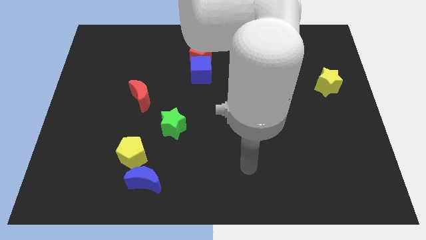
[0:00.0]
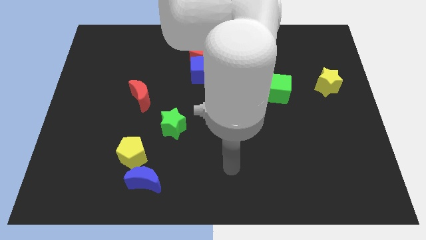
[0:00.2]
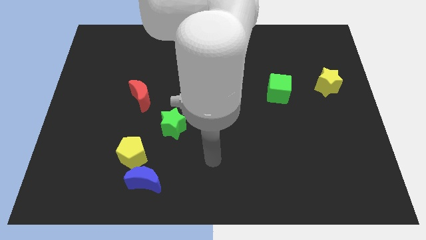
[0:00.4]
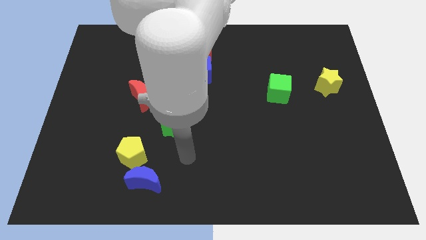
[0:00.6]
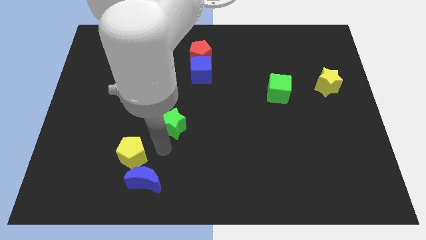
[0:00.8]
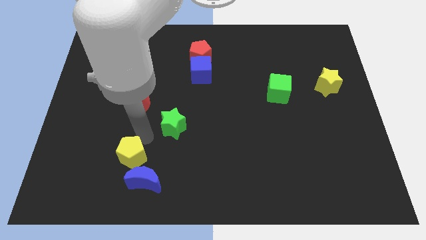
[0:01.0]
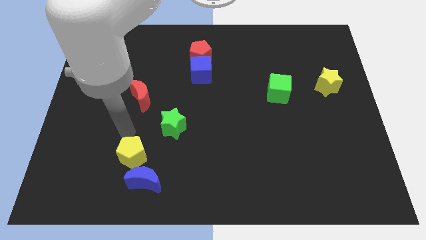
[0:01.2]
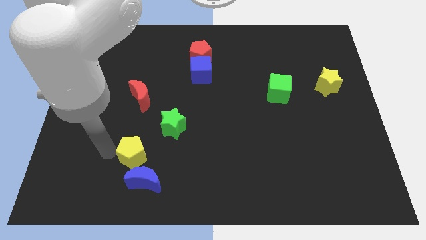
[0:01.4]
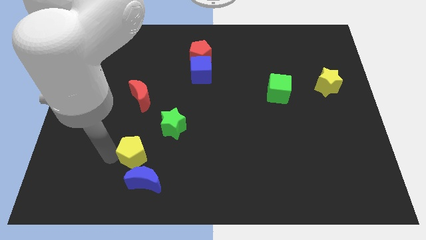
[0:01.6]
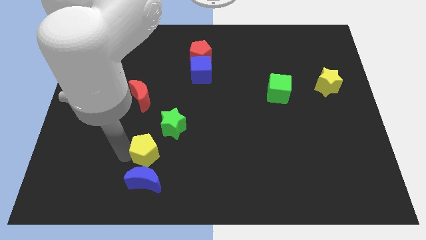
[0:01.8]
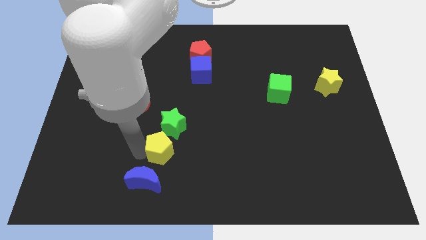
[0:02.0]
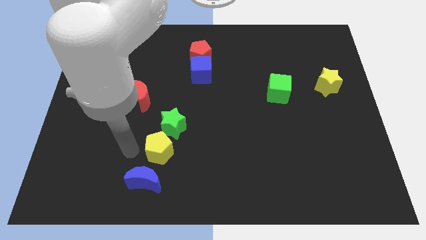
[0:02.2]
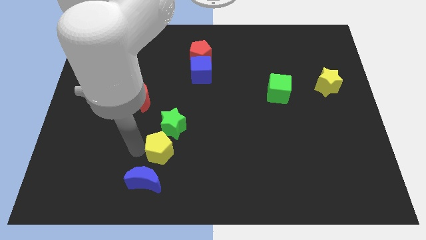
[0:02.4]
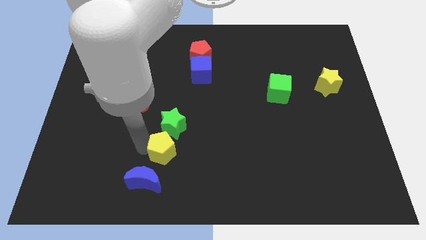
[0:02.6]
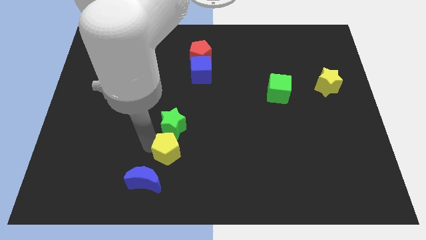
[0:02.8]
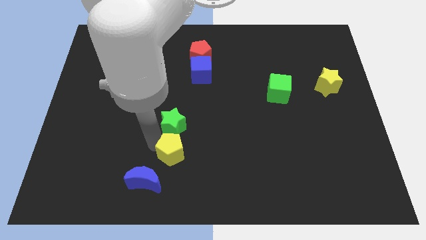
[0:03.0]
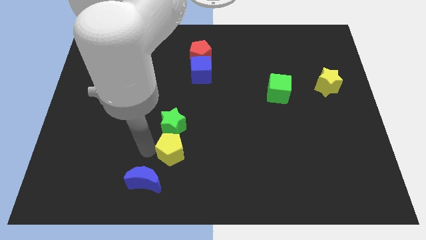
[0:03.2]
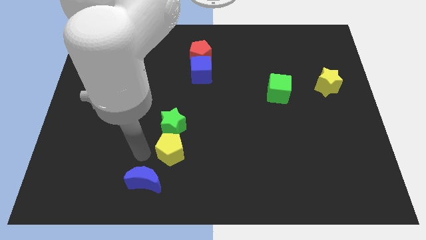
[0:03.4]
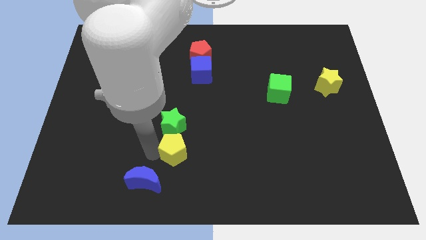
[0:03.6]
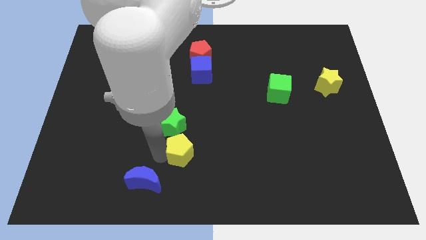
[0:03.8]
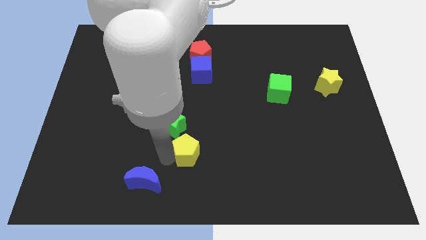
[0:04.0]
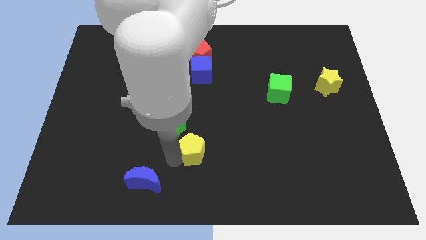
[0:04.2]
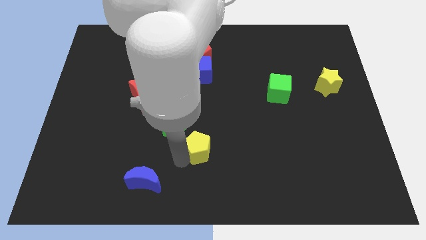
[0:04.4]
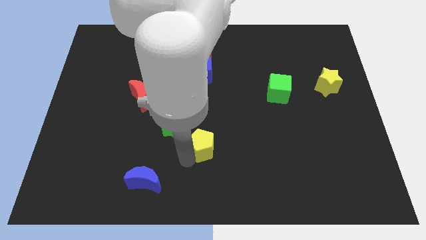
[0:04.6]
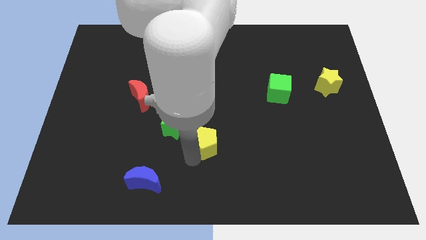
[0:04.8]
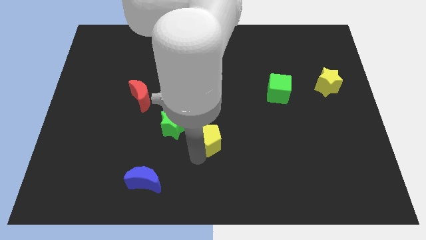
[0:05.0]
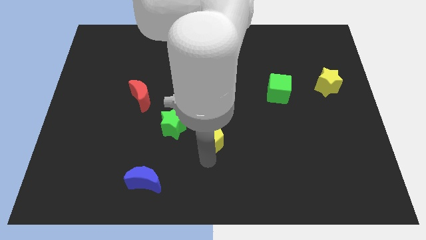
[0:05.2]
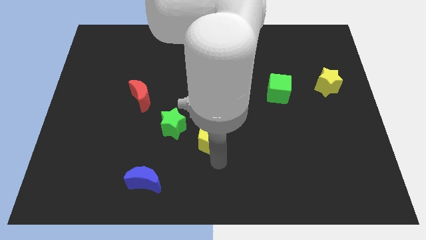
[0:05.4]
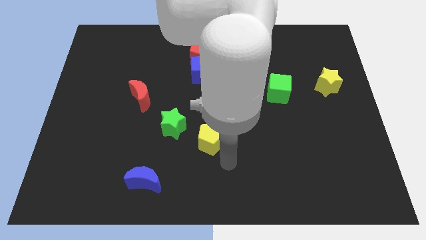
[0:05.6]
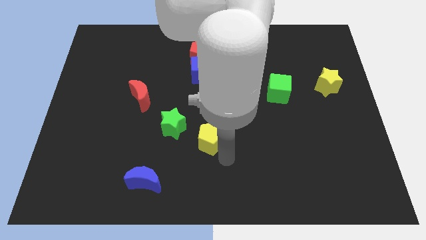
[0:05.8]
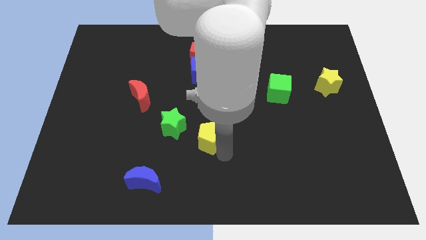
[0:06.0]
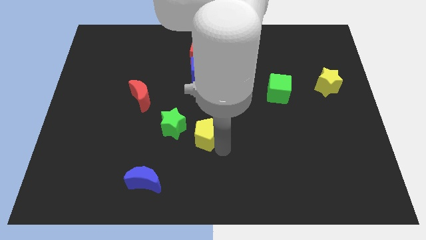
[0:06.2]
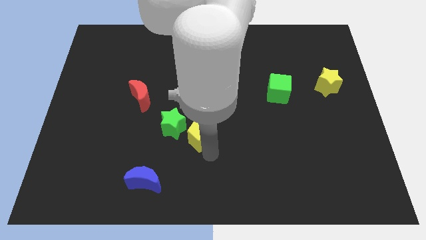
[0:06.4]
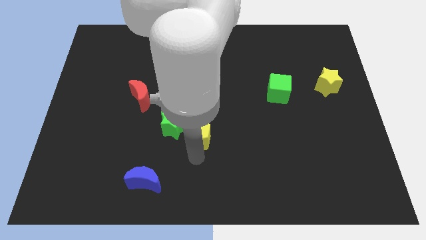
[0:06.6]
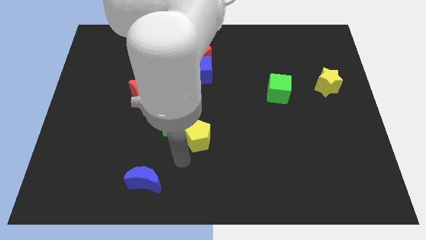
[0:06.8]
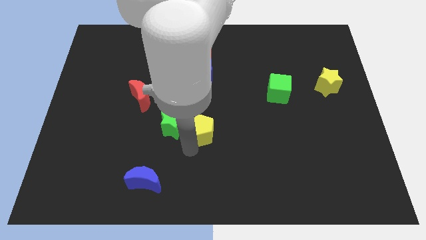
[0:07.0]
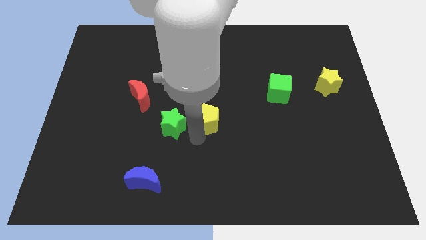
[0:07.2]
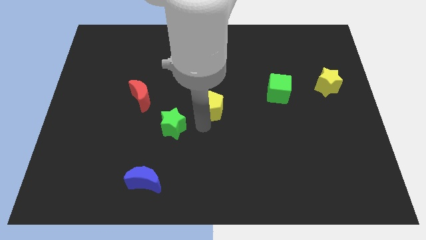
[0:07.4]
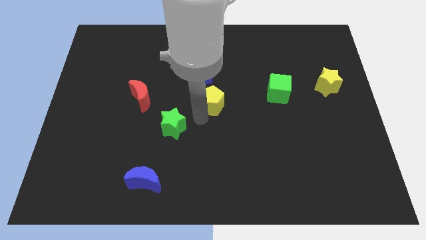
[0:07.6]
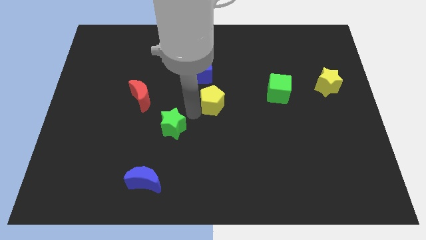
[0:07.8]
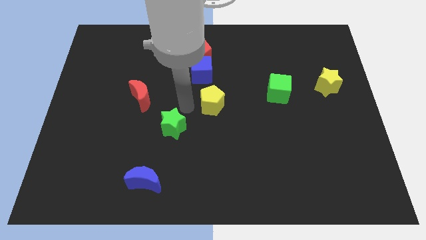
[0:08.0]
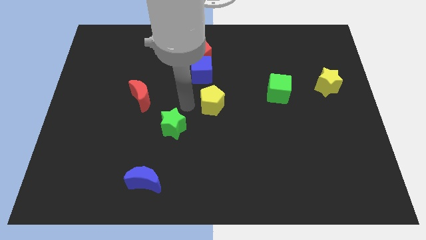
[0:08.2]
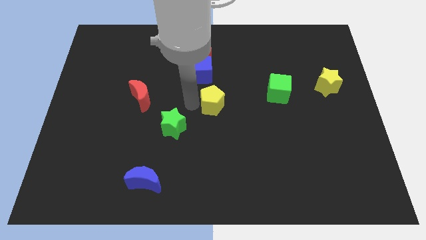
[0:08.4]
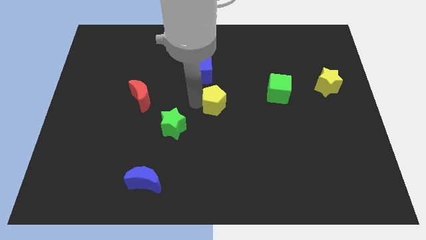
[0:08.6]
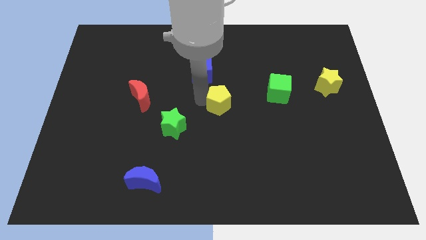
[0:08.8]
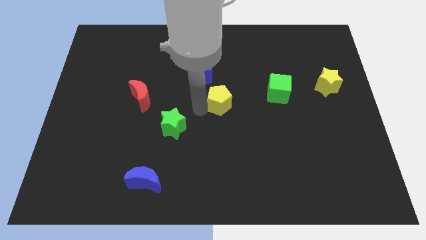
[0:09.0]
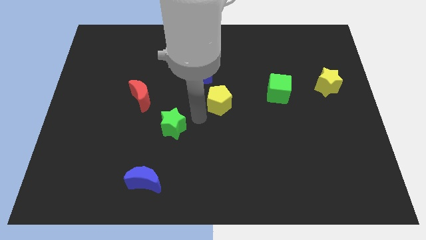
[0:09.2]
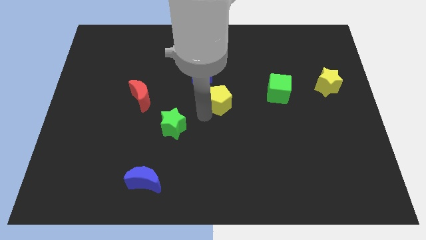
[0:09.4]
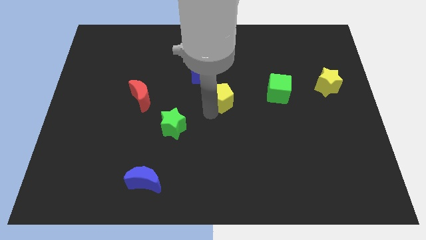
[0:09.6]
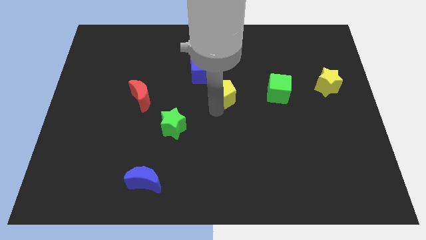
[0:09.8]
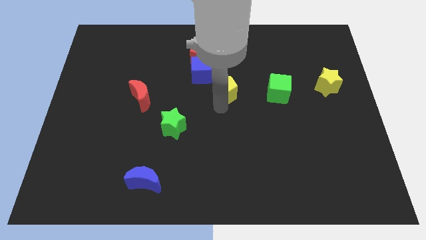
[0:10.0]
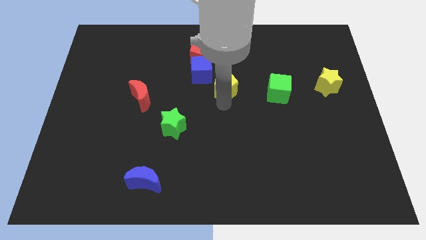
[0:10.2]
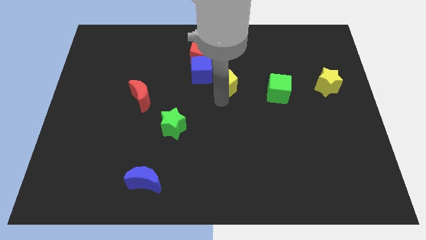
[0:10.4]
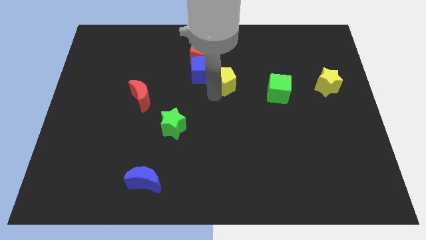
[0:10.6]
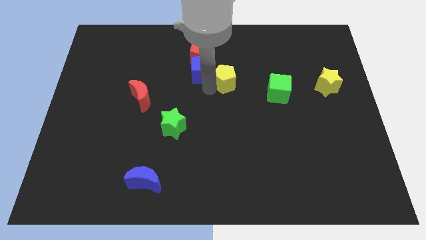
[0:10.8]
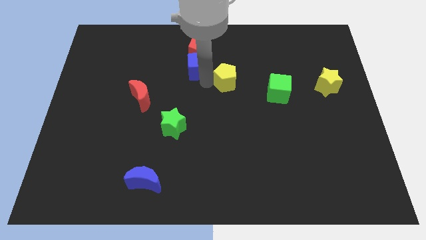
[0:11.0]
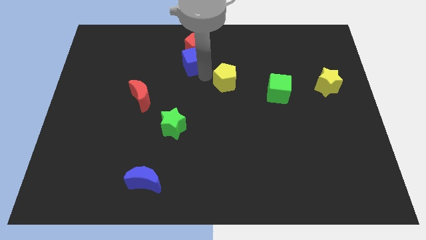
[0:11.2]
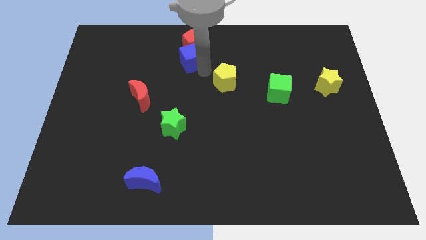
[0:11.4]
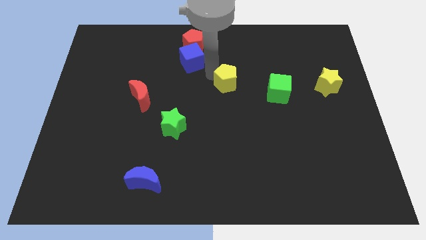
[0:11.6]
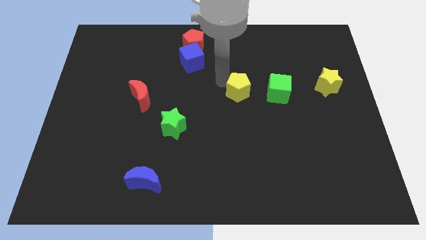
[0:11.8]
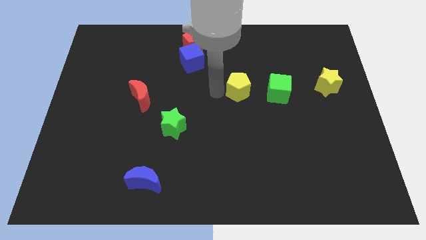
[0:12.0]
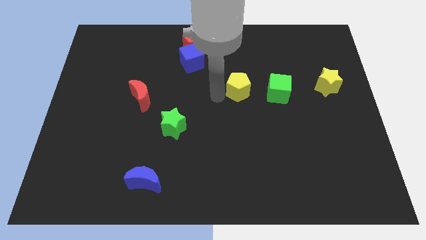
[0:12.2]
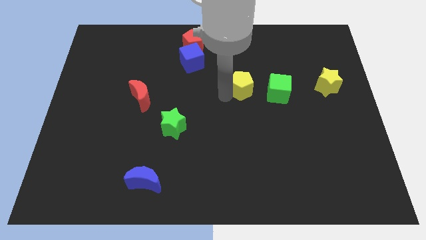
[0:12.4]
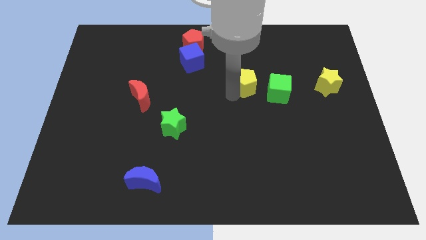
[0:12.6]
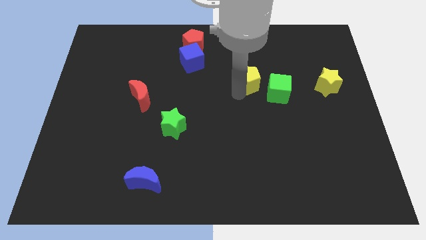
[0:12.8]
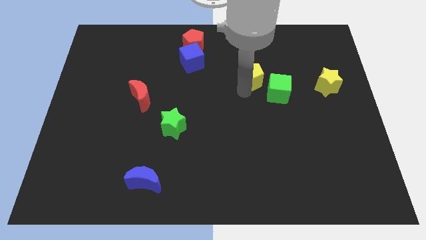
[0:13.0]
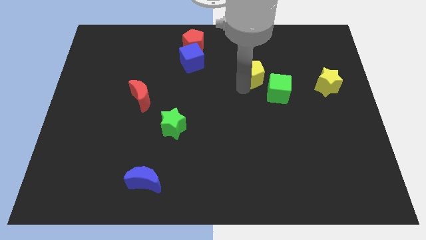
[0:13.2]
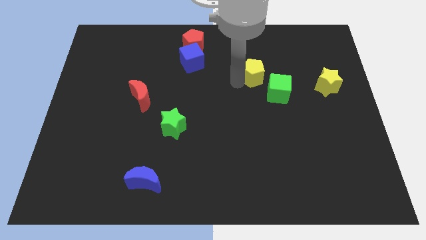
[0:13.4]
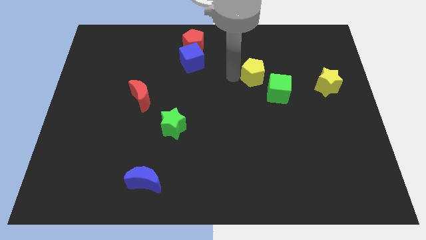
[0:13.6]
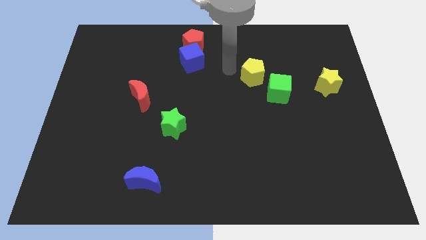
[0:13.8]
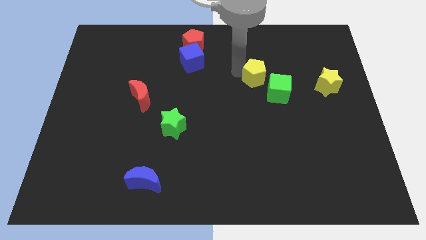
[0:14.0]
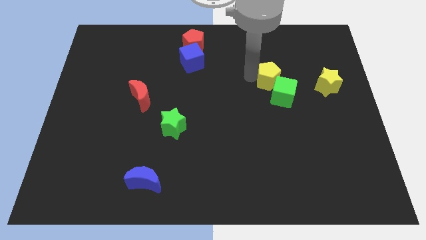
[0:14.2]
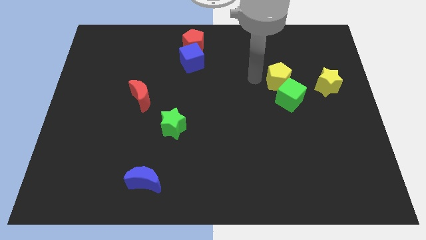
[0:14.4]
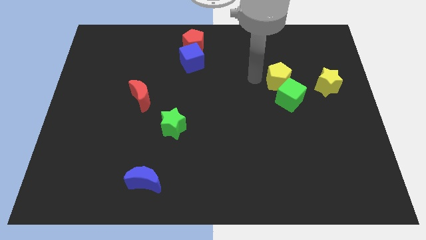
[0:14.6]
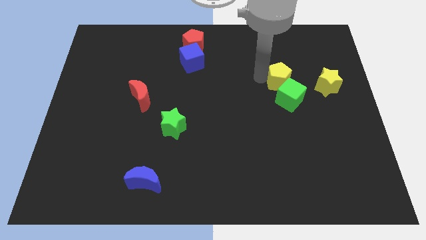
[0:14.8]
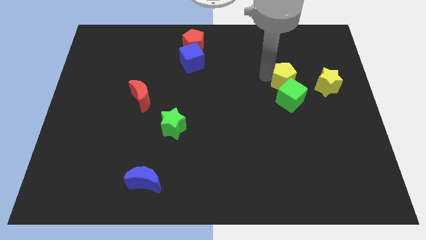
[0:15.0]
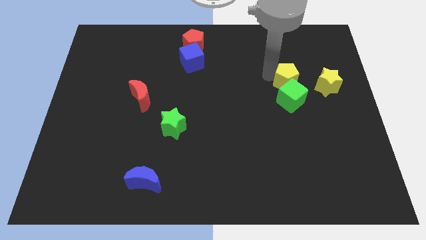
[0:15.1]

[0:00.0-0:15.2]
move the yellow pentagon to the top right side of the green cube
